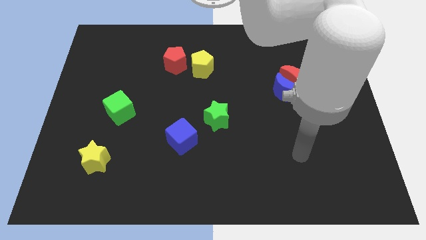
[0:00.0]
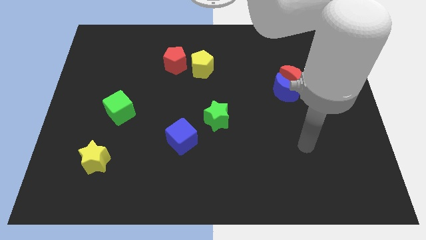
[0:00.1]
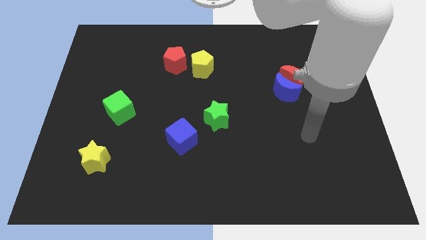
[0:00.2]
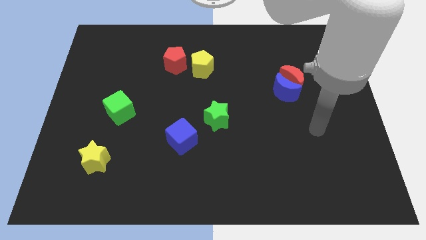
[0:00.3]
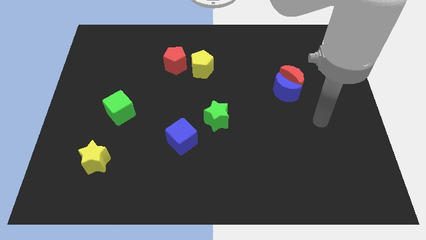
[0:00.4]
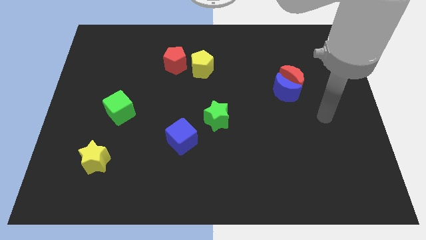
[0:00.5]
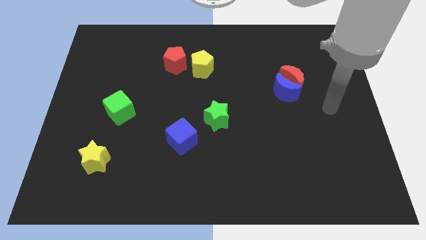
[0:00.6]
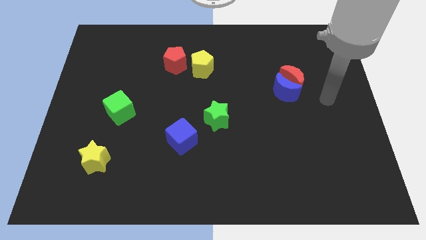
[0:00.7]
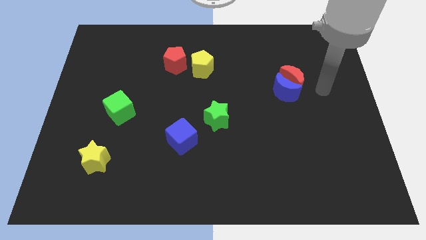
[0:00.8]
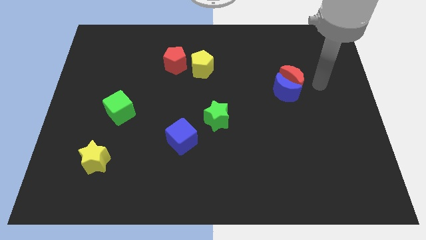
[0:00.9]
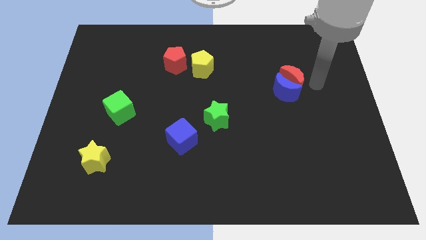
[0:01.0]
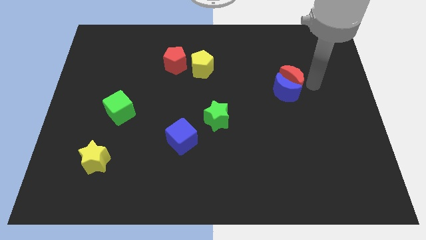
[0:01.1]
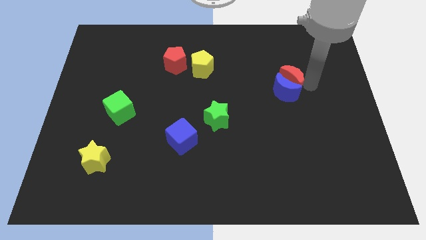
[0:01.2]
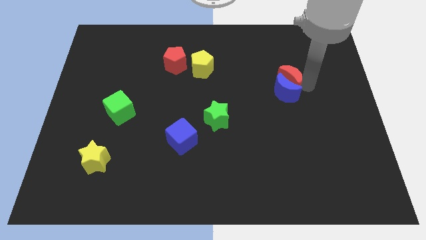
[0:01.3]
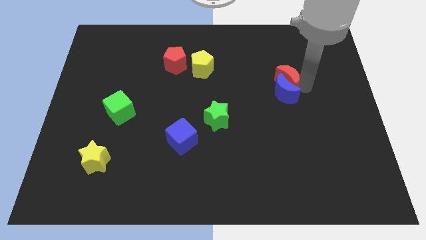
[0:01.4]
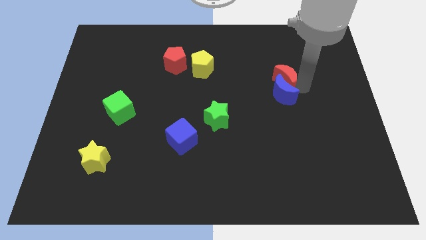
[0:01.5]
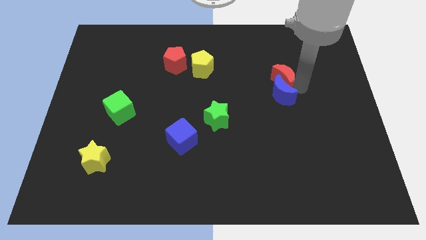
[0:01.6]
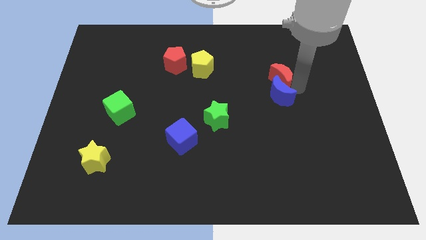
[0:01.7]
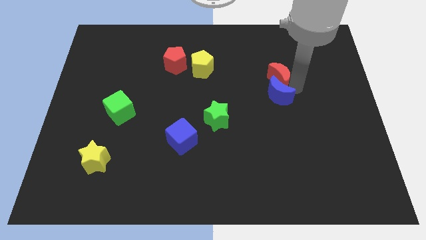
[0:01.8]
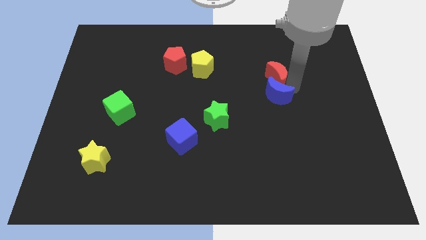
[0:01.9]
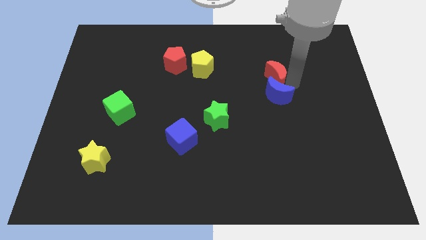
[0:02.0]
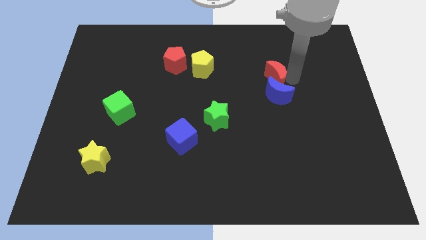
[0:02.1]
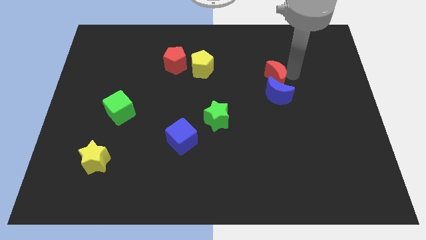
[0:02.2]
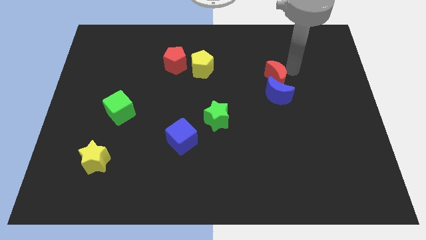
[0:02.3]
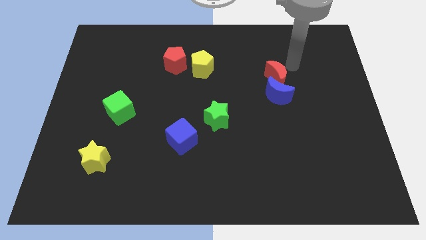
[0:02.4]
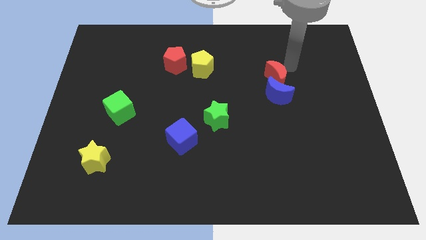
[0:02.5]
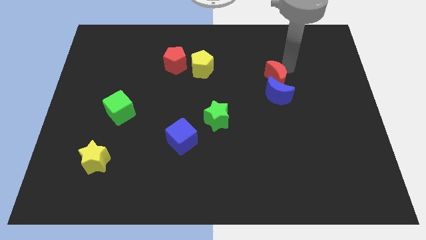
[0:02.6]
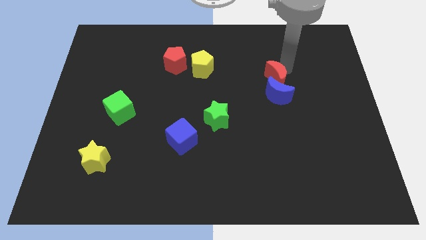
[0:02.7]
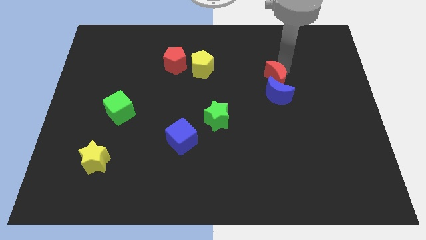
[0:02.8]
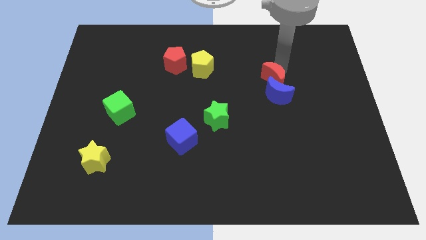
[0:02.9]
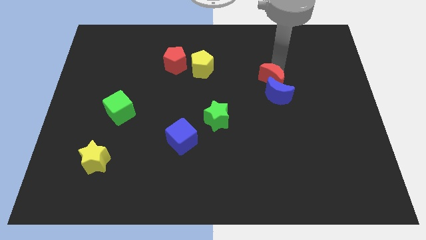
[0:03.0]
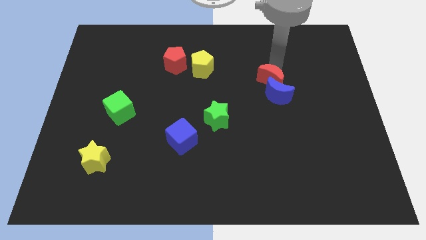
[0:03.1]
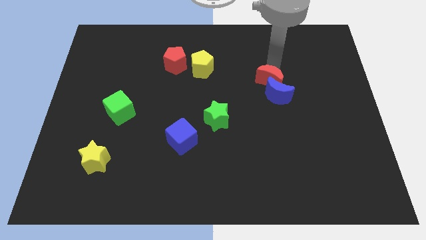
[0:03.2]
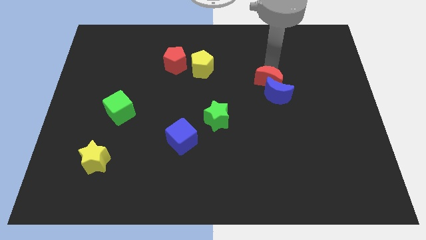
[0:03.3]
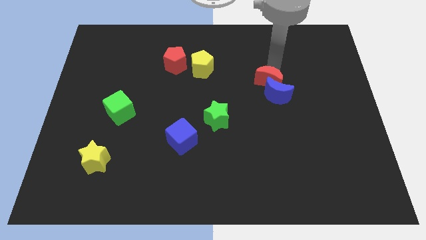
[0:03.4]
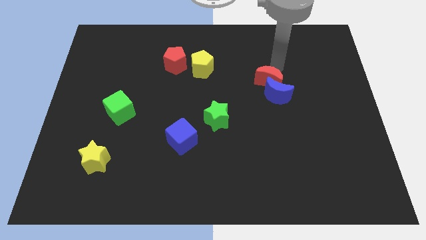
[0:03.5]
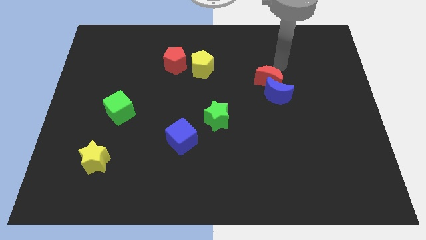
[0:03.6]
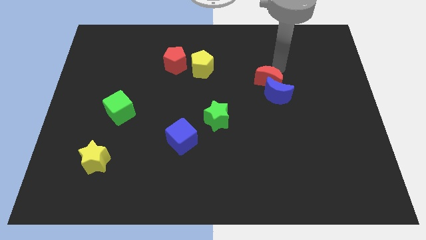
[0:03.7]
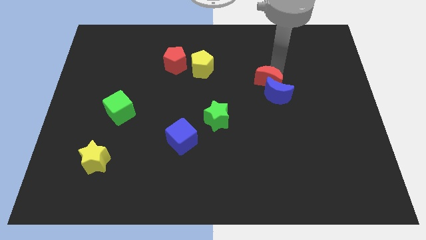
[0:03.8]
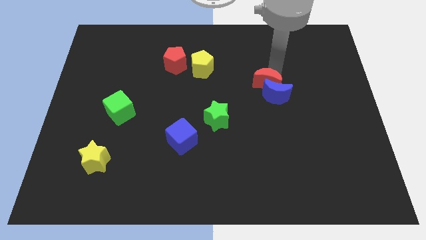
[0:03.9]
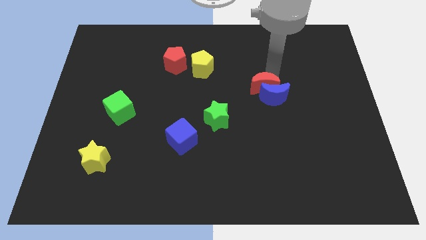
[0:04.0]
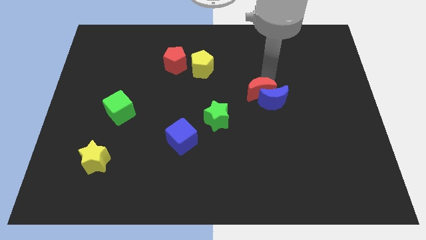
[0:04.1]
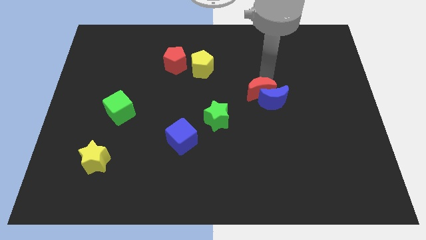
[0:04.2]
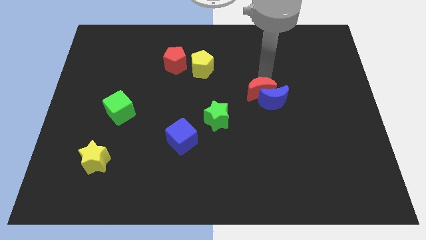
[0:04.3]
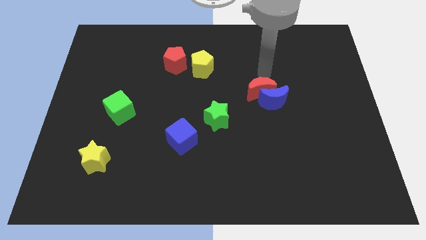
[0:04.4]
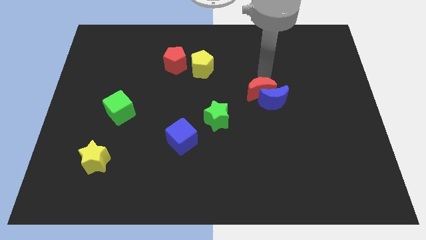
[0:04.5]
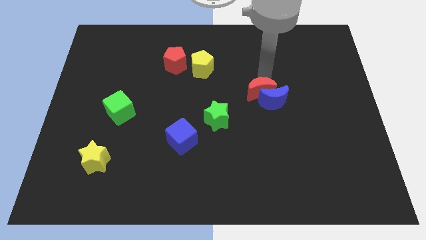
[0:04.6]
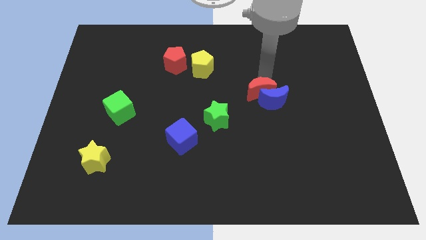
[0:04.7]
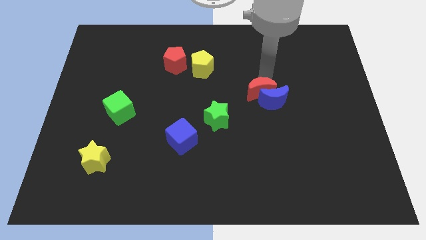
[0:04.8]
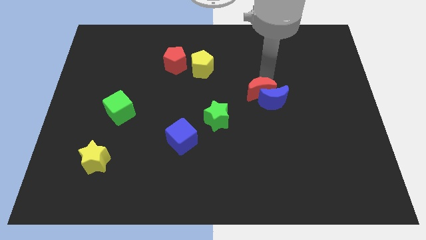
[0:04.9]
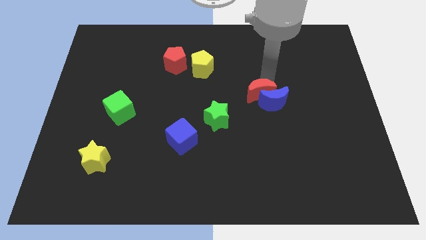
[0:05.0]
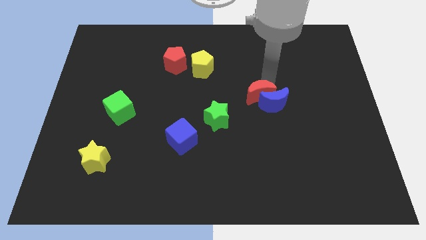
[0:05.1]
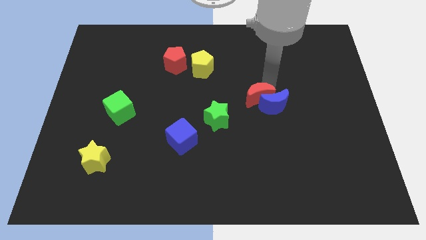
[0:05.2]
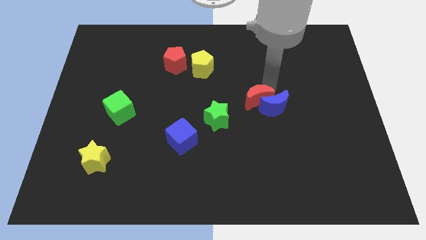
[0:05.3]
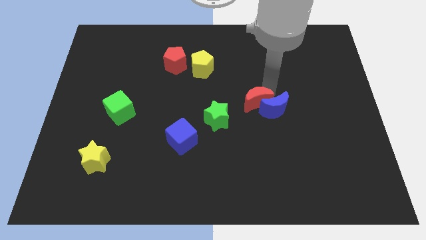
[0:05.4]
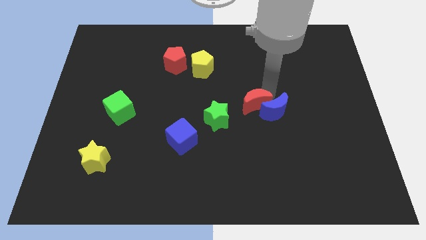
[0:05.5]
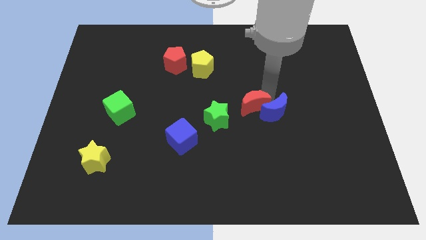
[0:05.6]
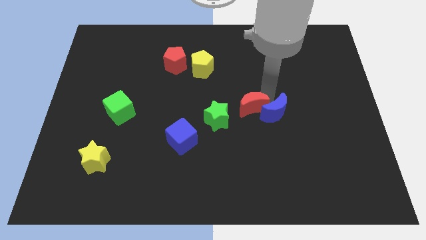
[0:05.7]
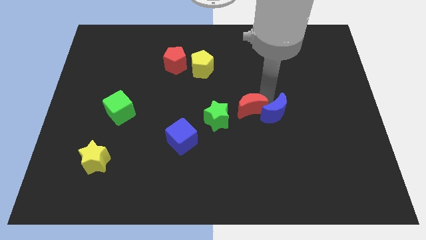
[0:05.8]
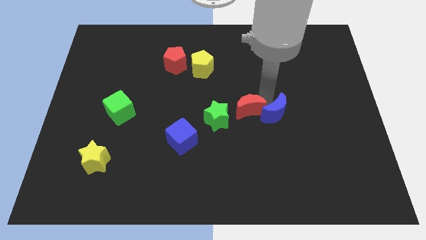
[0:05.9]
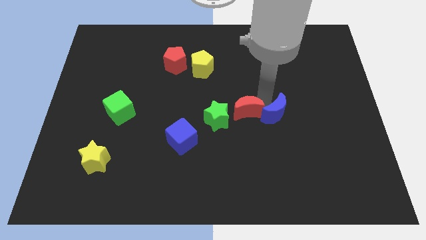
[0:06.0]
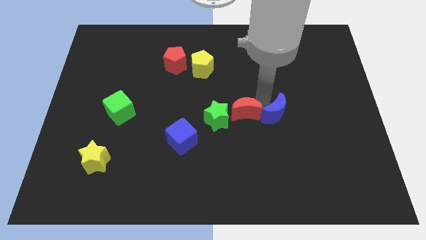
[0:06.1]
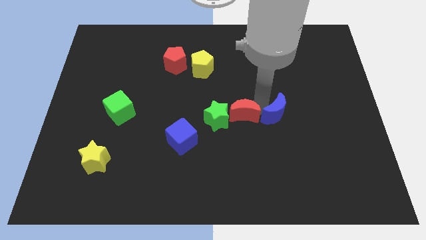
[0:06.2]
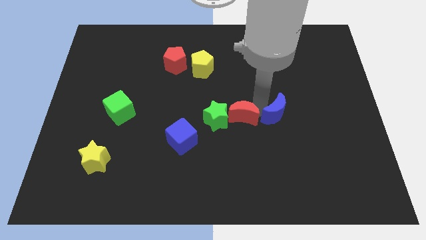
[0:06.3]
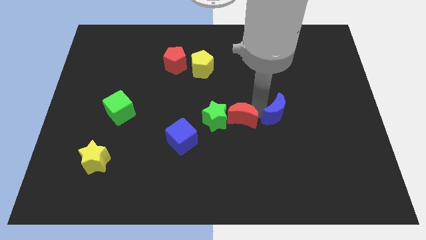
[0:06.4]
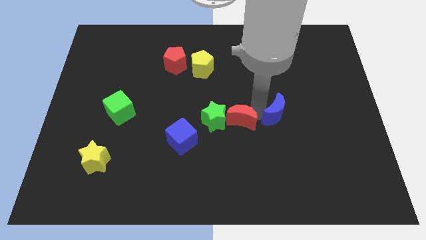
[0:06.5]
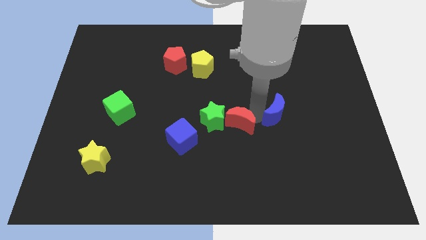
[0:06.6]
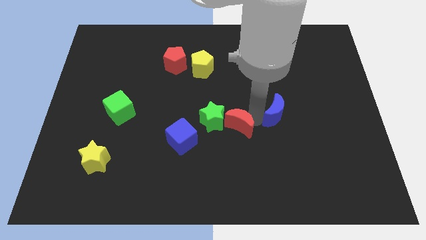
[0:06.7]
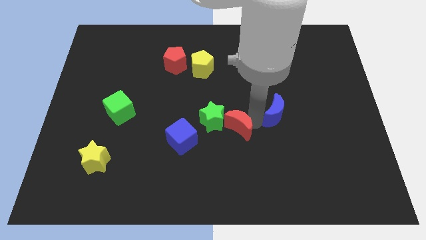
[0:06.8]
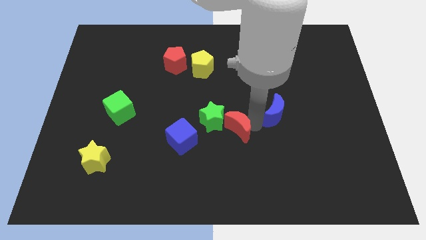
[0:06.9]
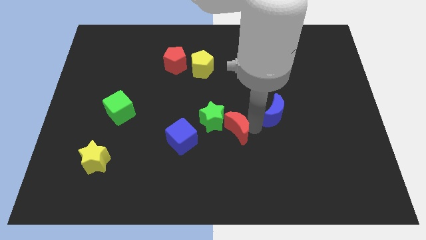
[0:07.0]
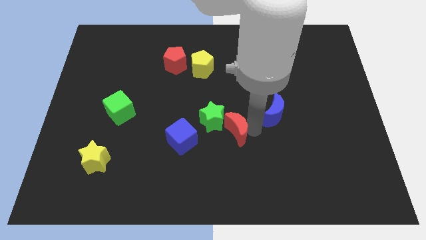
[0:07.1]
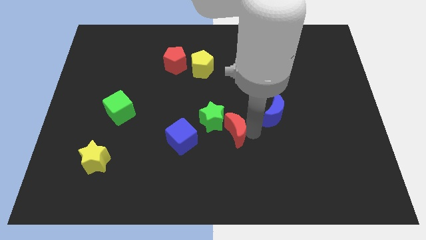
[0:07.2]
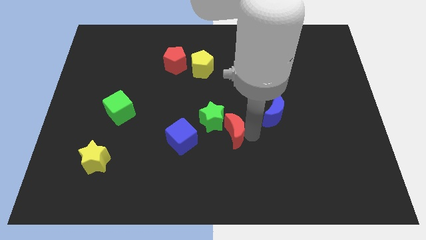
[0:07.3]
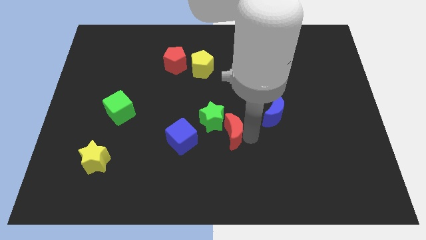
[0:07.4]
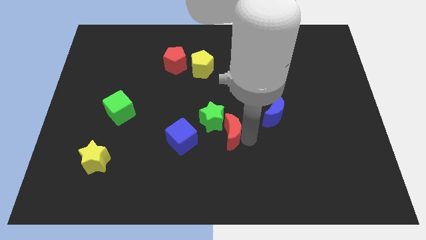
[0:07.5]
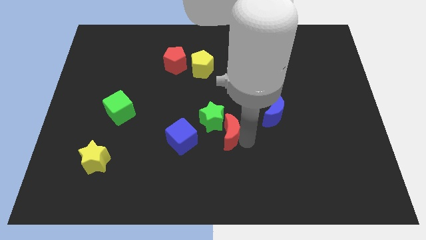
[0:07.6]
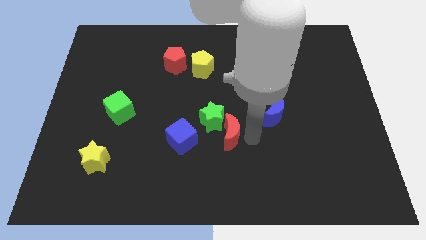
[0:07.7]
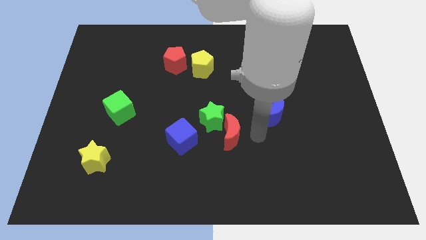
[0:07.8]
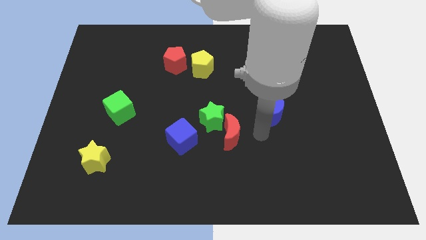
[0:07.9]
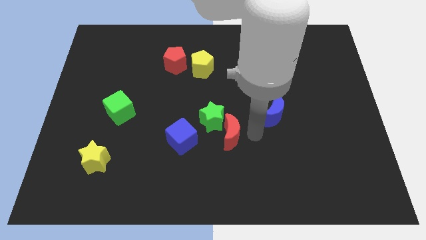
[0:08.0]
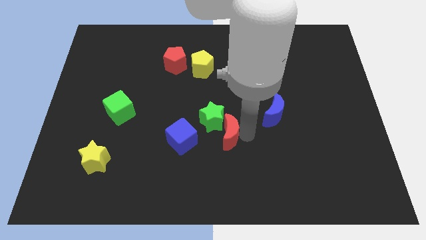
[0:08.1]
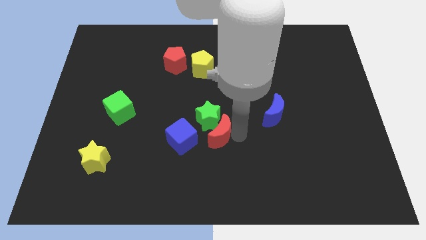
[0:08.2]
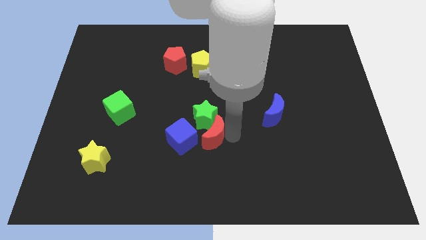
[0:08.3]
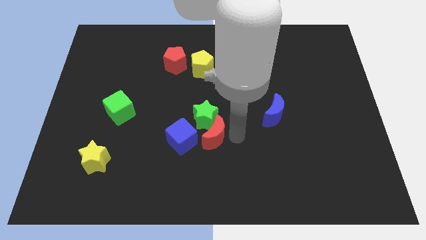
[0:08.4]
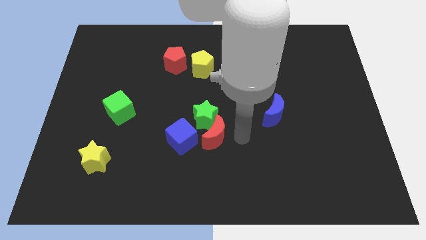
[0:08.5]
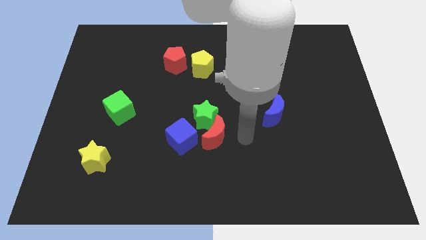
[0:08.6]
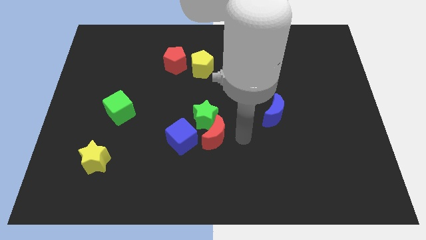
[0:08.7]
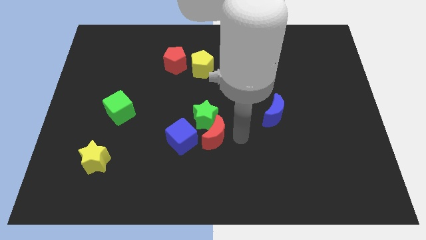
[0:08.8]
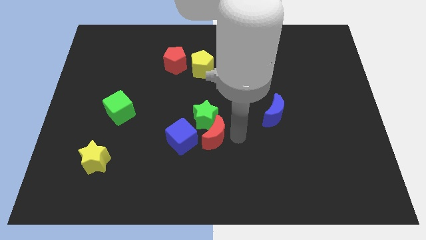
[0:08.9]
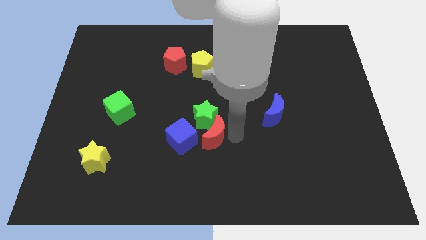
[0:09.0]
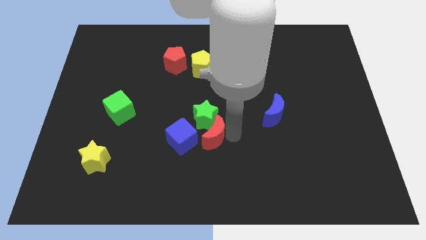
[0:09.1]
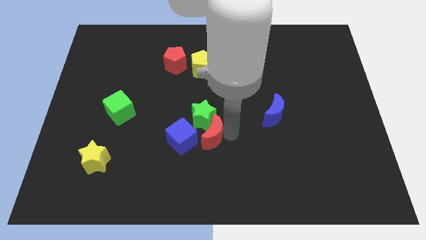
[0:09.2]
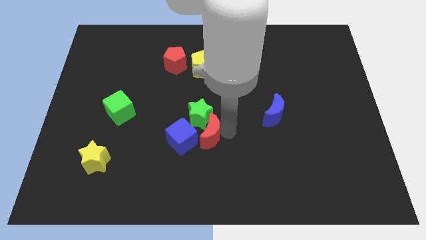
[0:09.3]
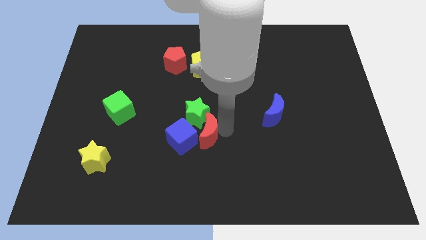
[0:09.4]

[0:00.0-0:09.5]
put the red moon close to the blue cube
